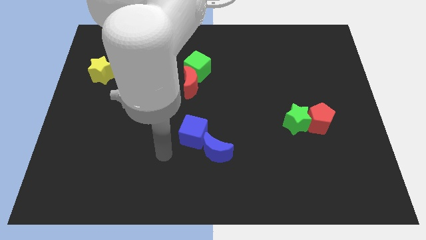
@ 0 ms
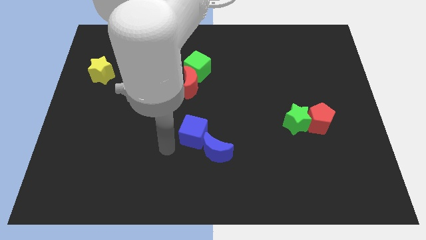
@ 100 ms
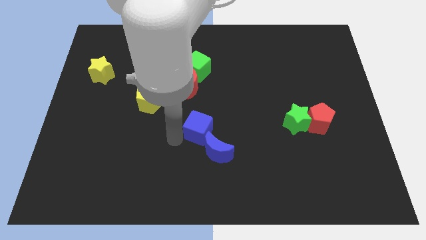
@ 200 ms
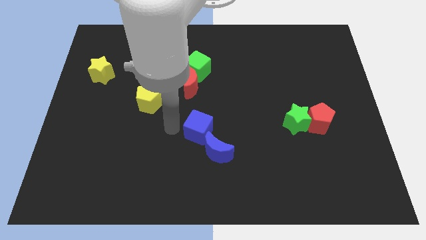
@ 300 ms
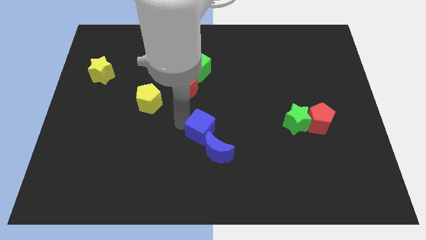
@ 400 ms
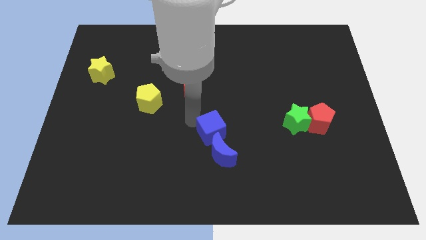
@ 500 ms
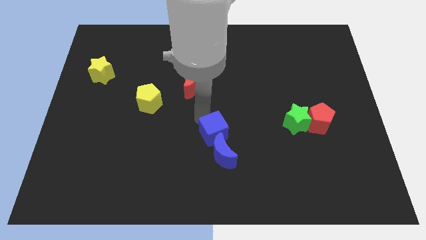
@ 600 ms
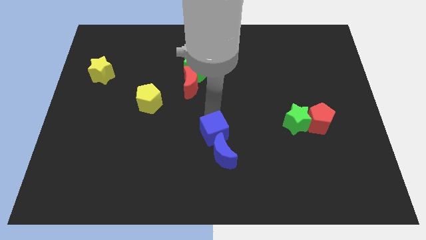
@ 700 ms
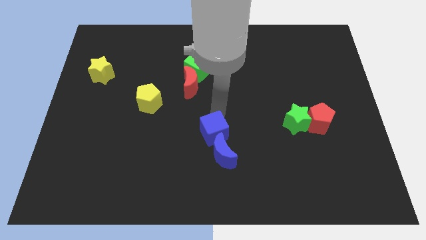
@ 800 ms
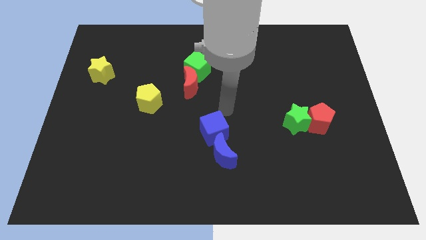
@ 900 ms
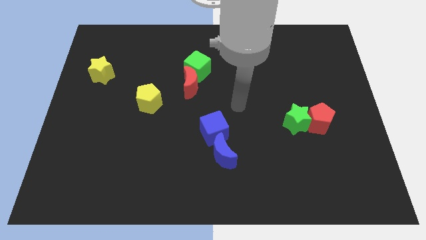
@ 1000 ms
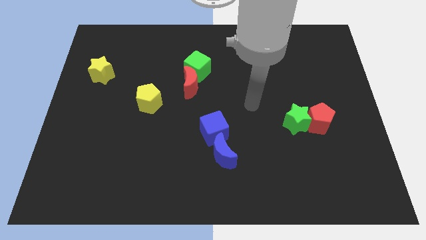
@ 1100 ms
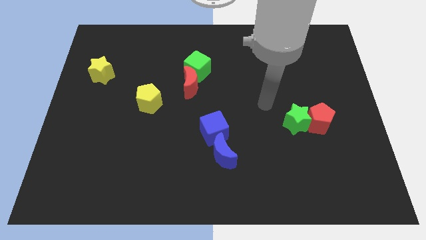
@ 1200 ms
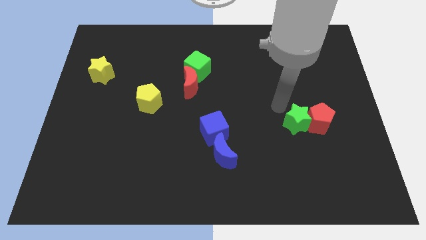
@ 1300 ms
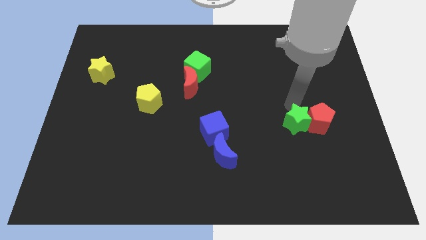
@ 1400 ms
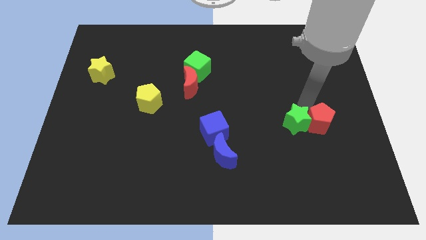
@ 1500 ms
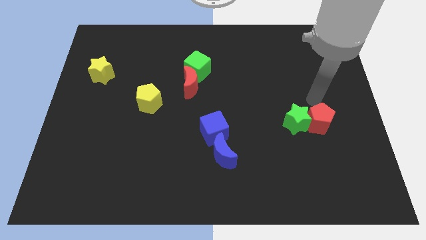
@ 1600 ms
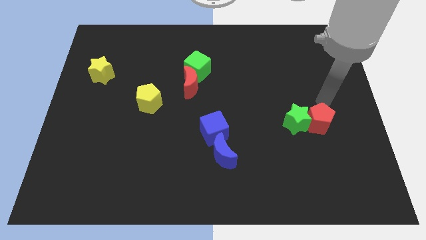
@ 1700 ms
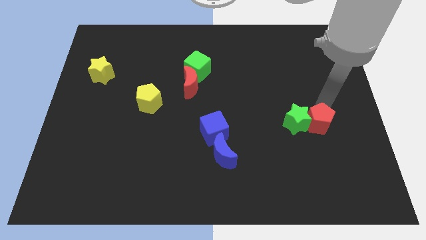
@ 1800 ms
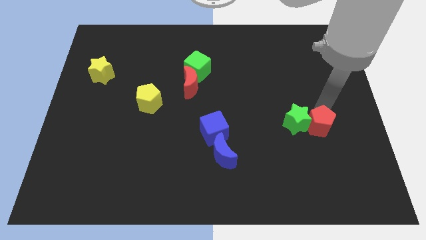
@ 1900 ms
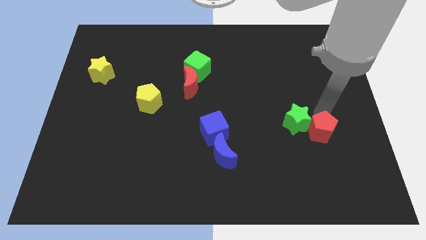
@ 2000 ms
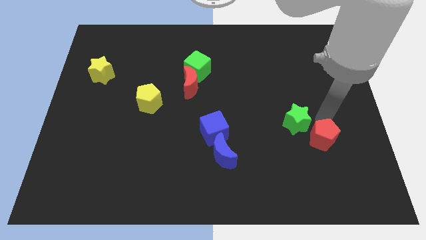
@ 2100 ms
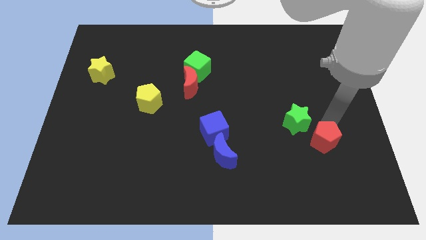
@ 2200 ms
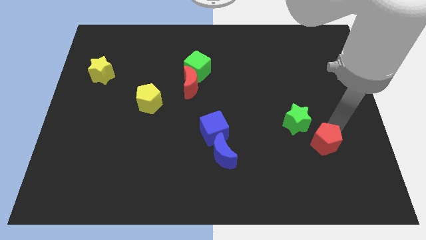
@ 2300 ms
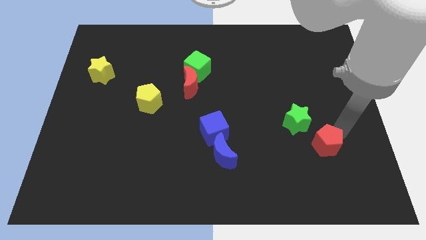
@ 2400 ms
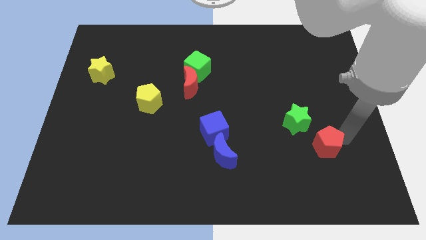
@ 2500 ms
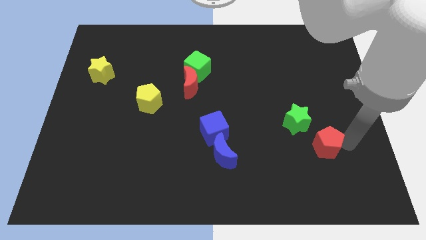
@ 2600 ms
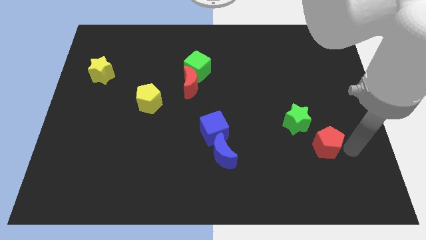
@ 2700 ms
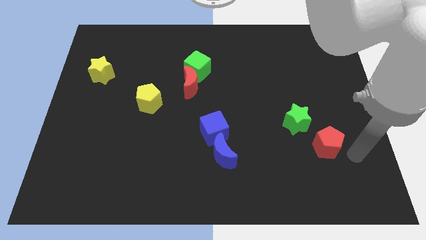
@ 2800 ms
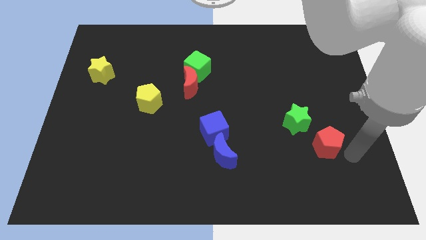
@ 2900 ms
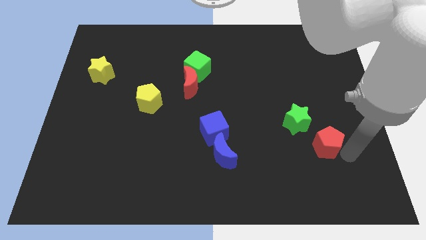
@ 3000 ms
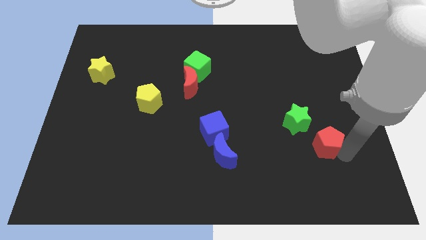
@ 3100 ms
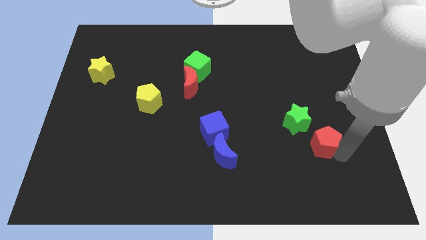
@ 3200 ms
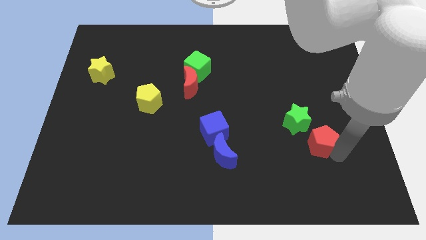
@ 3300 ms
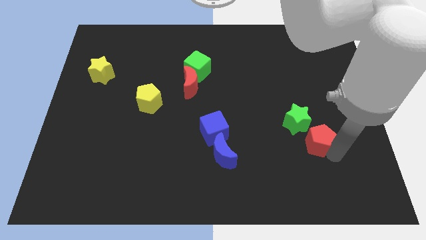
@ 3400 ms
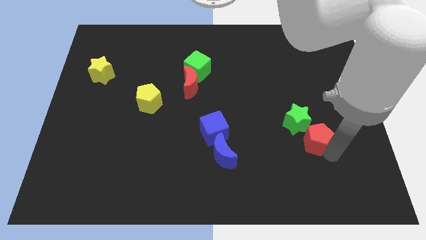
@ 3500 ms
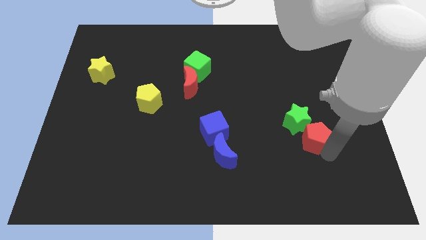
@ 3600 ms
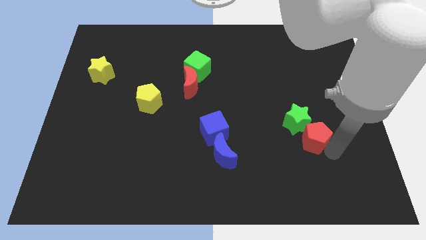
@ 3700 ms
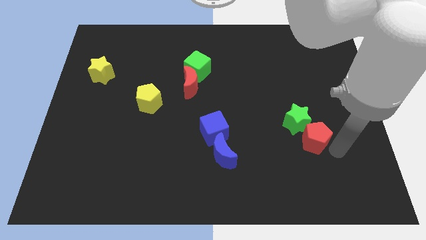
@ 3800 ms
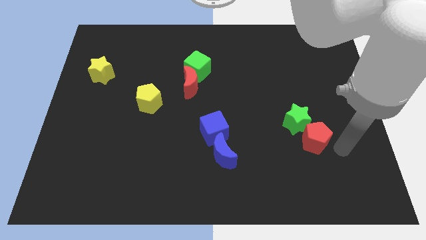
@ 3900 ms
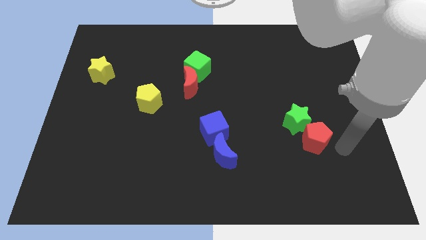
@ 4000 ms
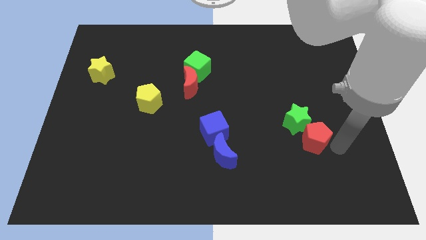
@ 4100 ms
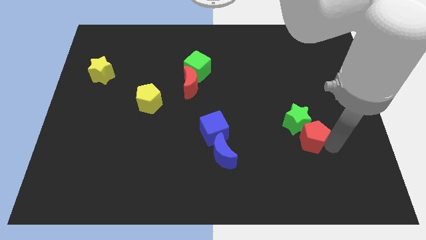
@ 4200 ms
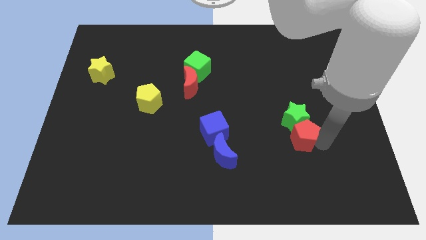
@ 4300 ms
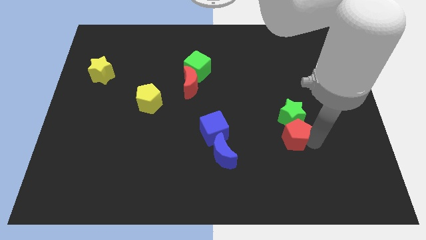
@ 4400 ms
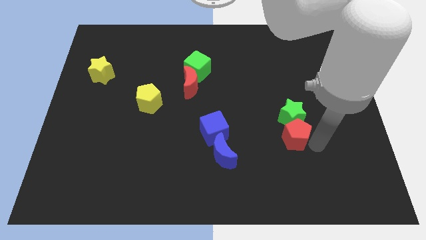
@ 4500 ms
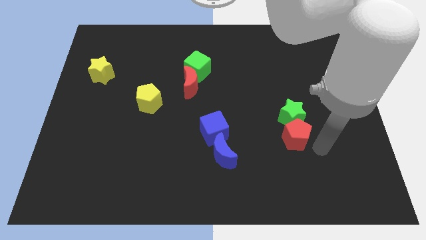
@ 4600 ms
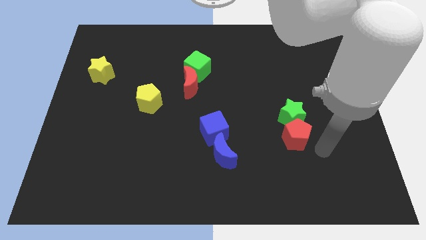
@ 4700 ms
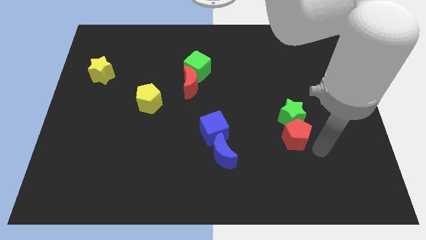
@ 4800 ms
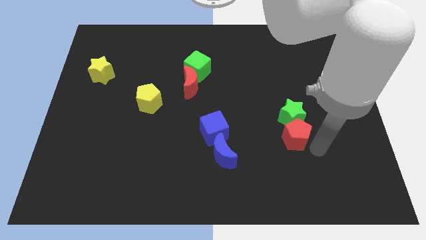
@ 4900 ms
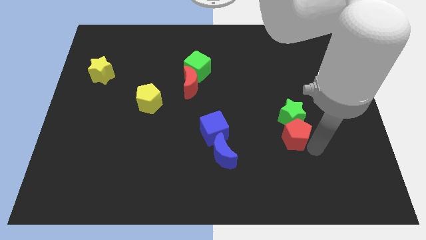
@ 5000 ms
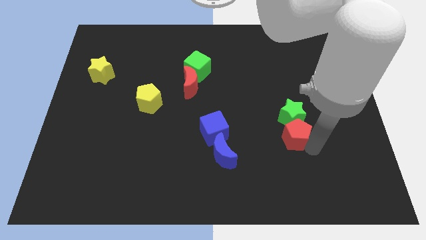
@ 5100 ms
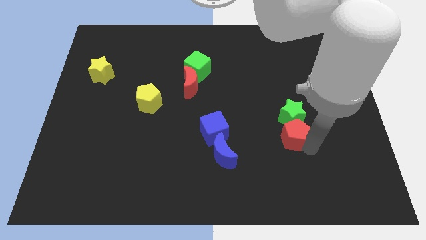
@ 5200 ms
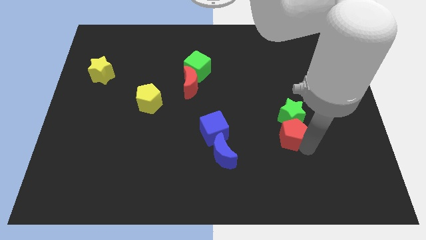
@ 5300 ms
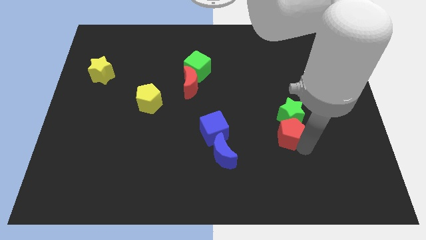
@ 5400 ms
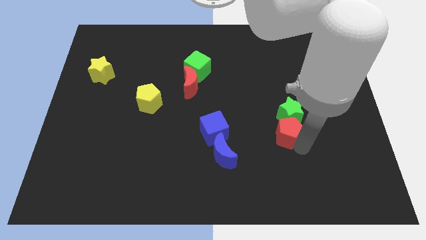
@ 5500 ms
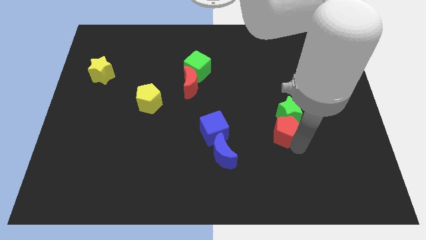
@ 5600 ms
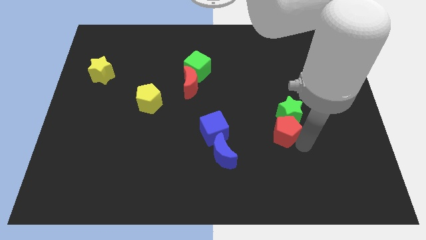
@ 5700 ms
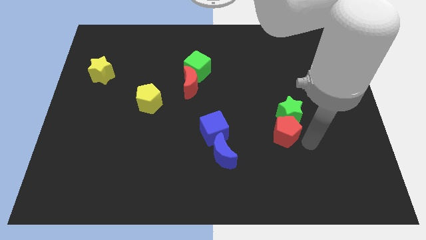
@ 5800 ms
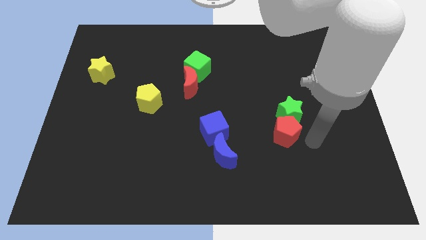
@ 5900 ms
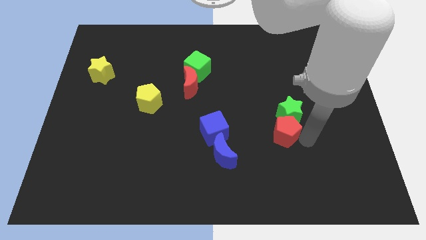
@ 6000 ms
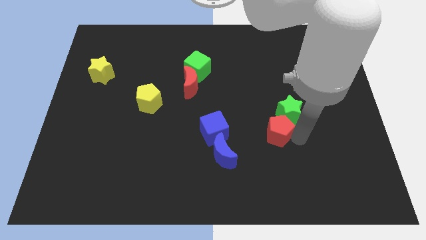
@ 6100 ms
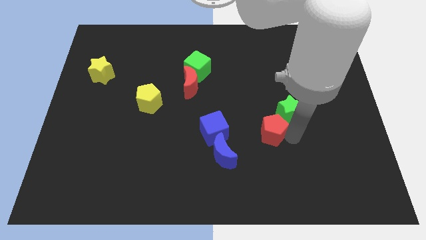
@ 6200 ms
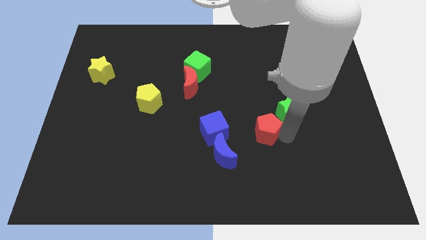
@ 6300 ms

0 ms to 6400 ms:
slide the red pentagon diagonally up and to the right of the blue moon

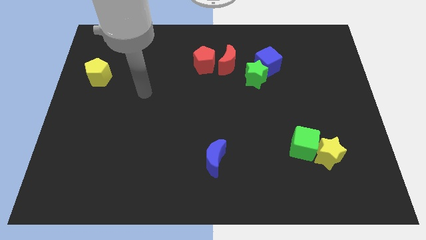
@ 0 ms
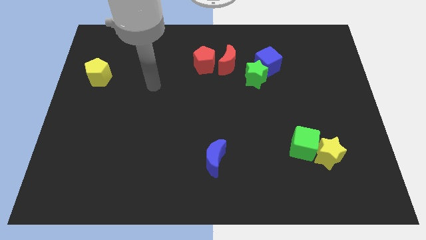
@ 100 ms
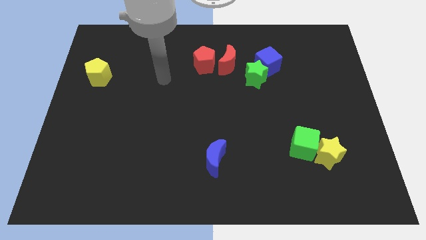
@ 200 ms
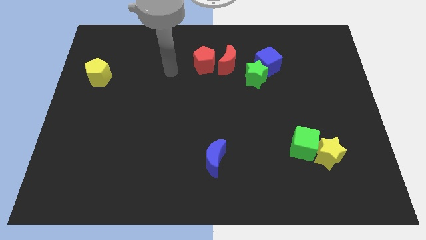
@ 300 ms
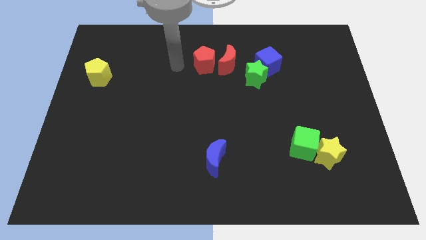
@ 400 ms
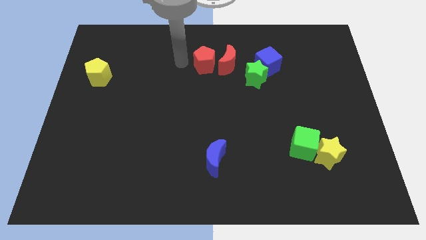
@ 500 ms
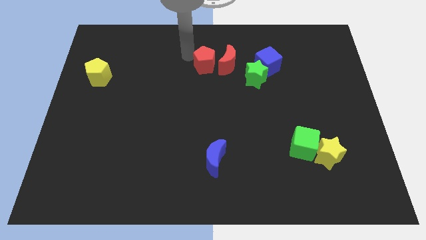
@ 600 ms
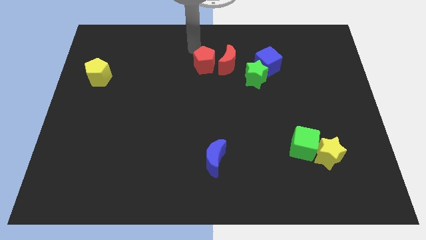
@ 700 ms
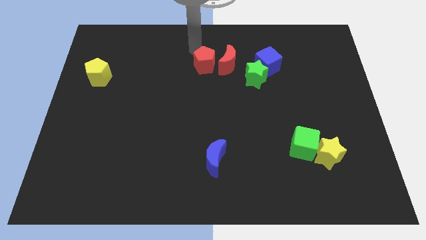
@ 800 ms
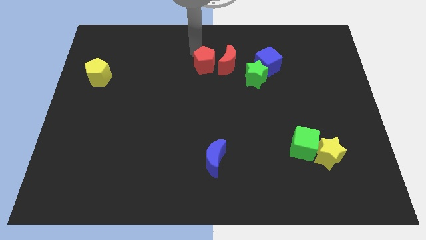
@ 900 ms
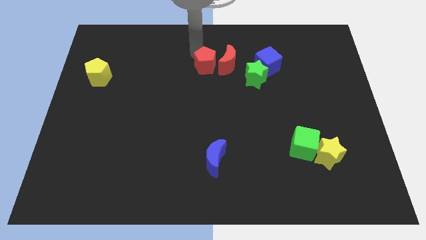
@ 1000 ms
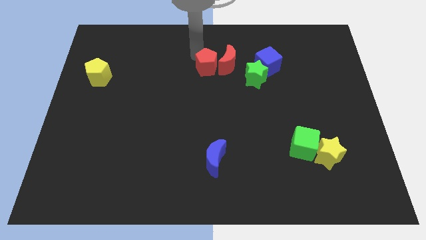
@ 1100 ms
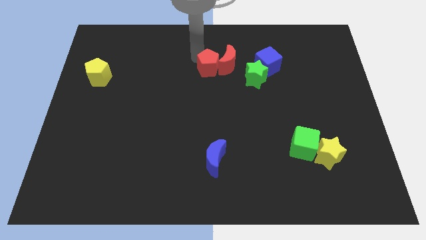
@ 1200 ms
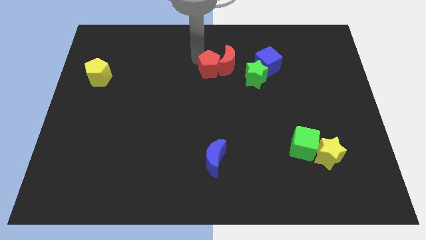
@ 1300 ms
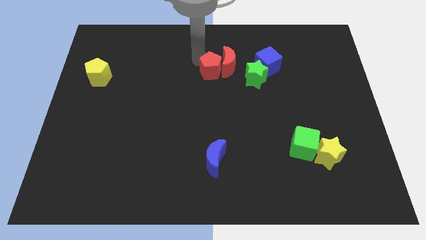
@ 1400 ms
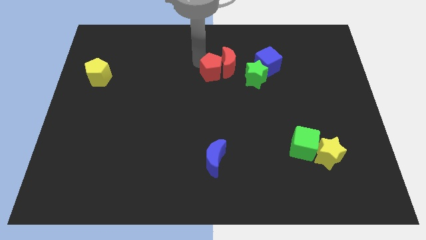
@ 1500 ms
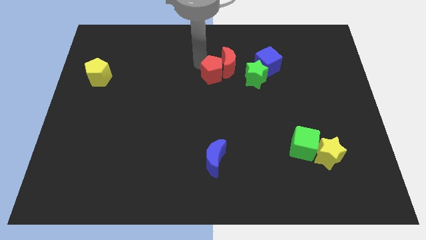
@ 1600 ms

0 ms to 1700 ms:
slide the red pentagon below the red moon
